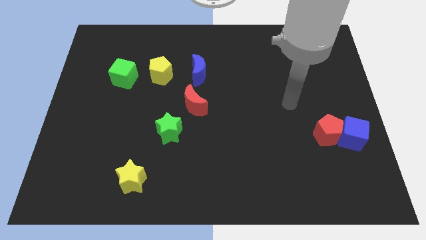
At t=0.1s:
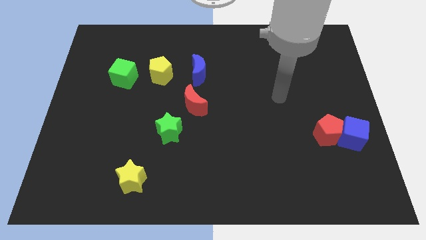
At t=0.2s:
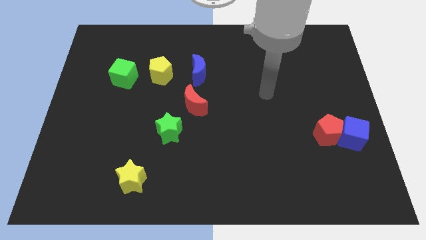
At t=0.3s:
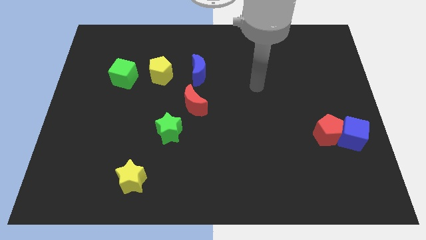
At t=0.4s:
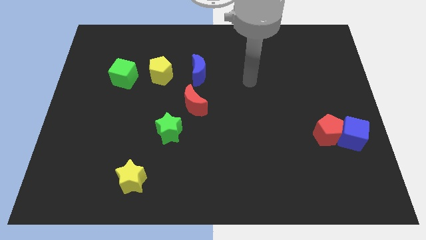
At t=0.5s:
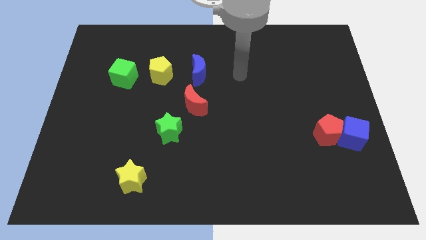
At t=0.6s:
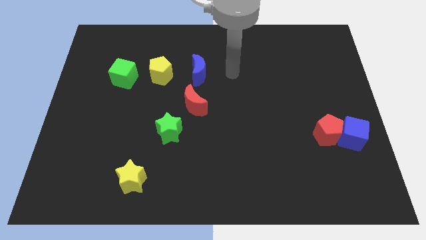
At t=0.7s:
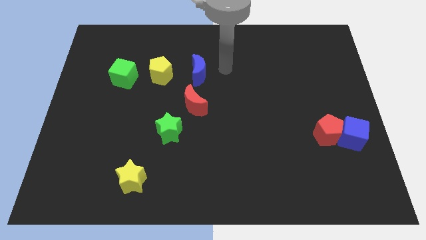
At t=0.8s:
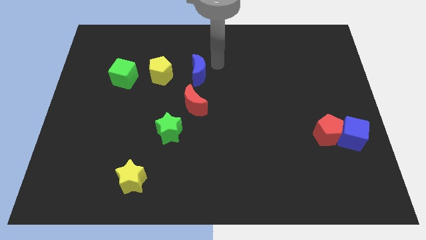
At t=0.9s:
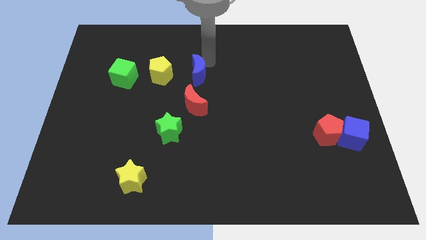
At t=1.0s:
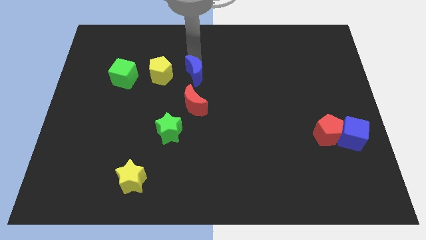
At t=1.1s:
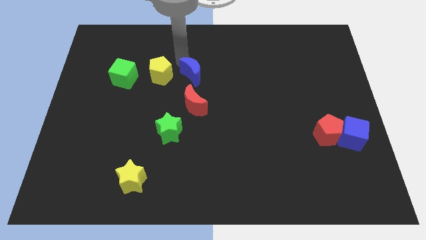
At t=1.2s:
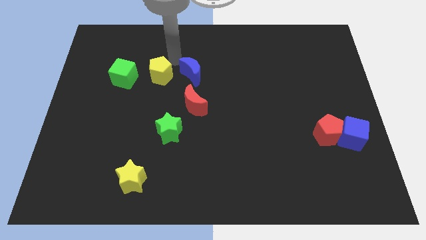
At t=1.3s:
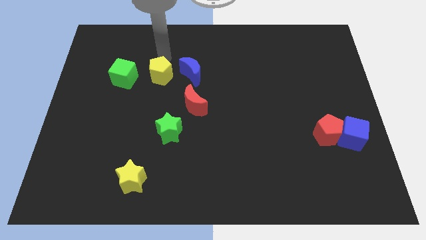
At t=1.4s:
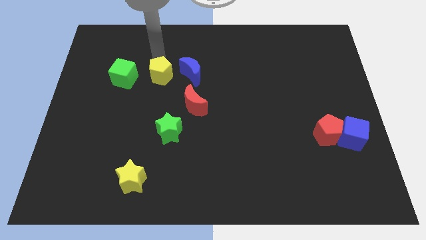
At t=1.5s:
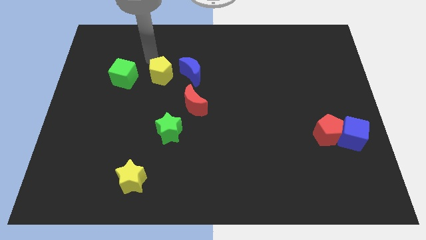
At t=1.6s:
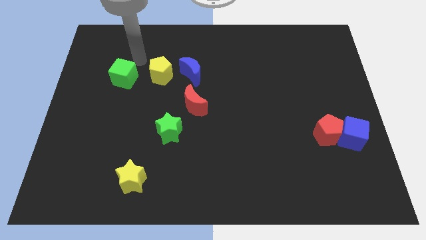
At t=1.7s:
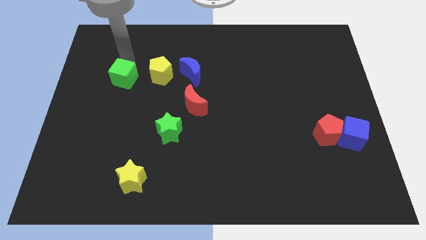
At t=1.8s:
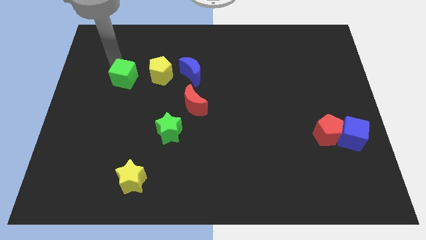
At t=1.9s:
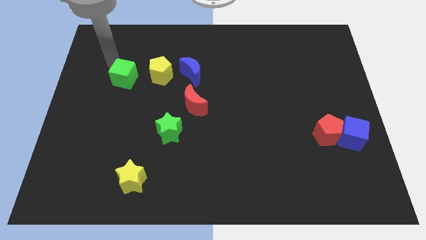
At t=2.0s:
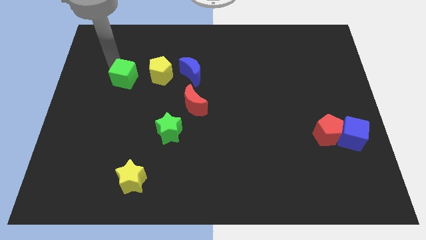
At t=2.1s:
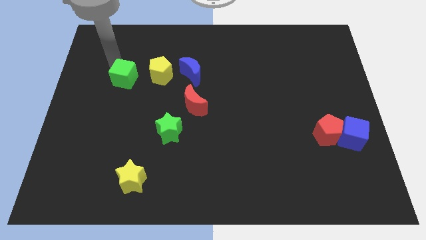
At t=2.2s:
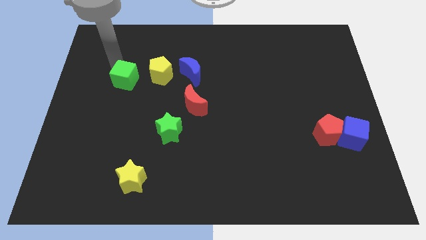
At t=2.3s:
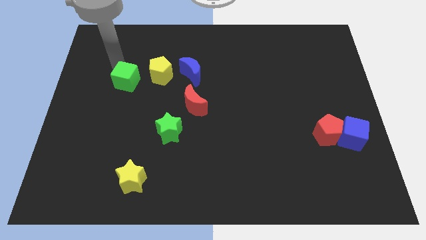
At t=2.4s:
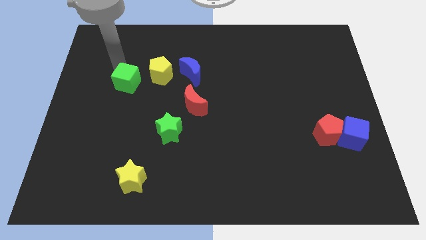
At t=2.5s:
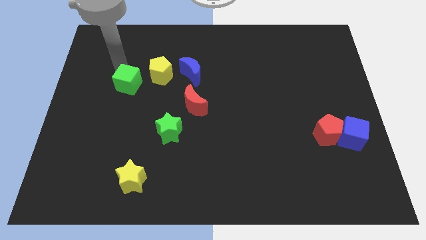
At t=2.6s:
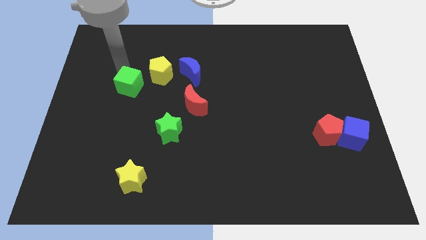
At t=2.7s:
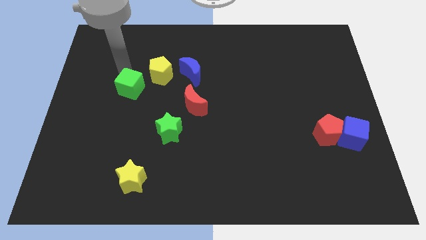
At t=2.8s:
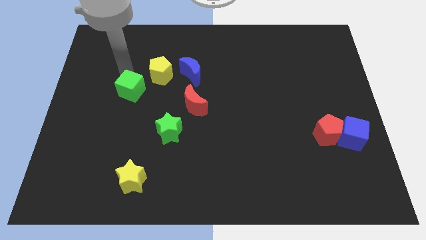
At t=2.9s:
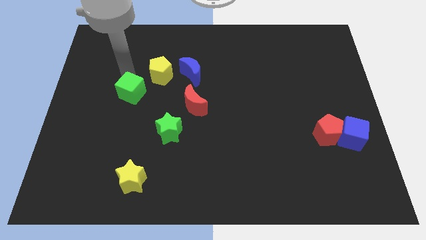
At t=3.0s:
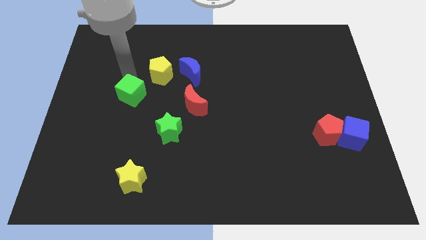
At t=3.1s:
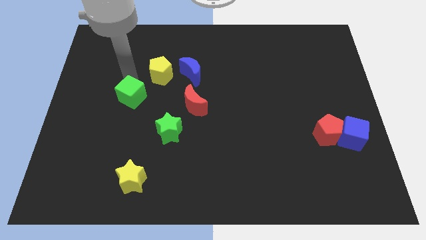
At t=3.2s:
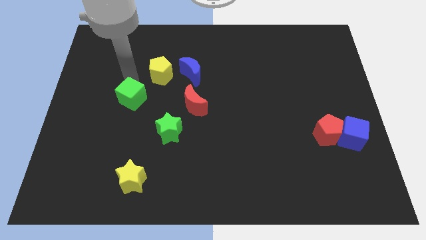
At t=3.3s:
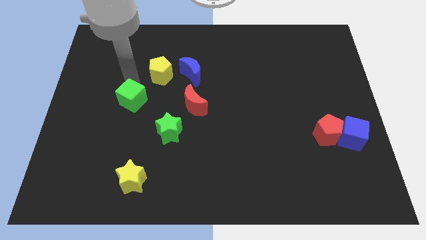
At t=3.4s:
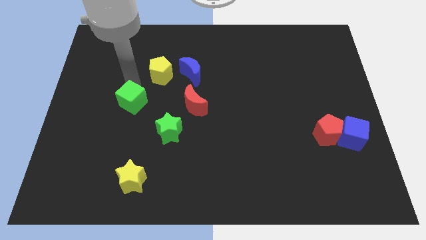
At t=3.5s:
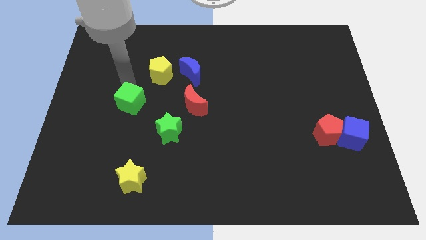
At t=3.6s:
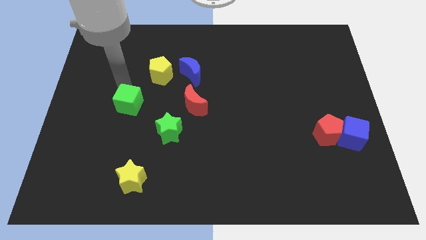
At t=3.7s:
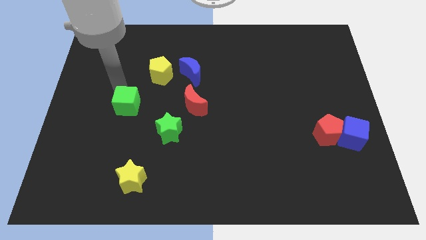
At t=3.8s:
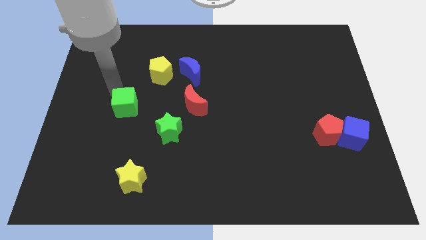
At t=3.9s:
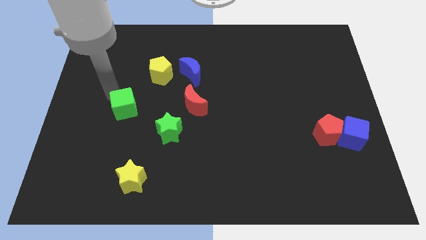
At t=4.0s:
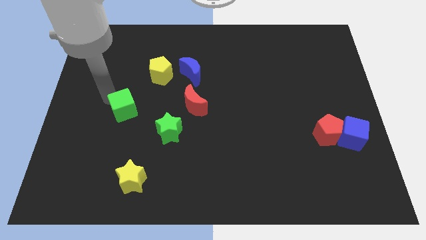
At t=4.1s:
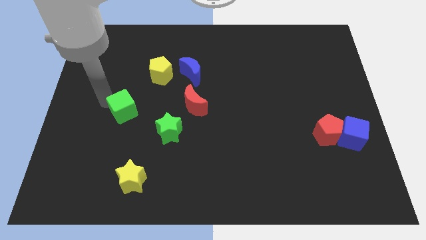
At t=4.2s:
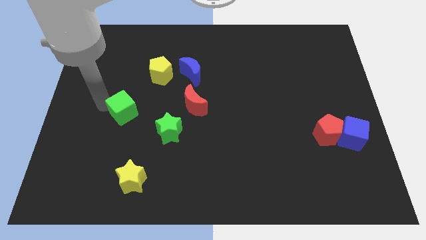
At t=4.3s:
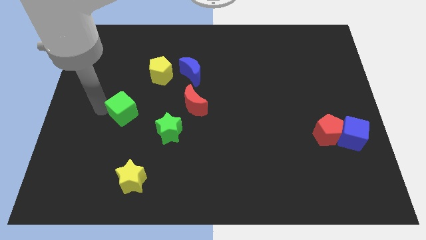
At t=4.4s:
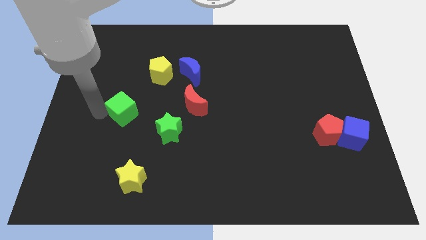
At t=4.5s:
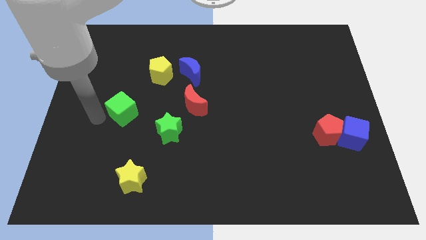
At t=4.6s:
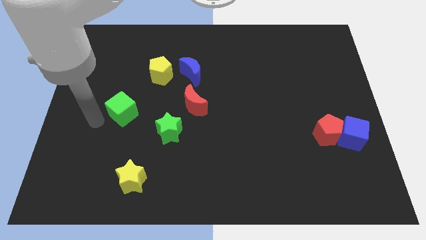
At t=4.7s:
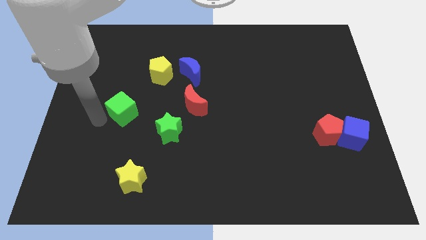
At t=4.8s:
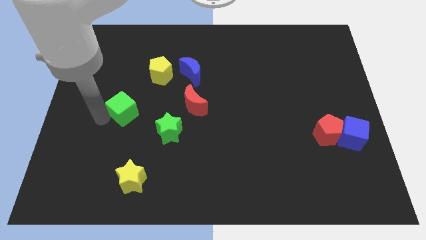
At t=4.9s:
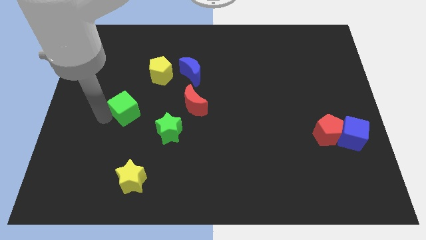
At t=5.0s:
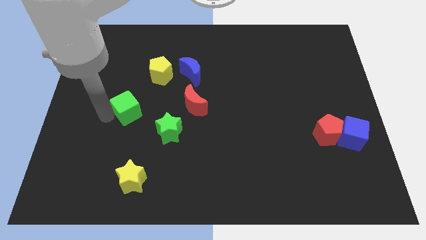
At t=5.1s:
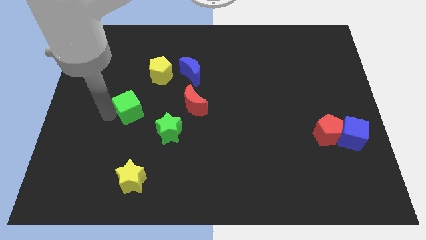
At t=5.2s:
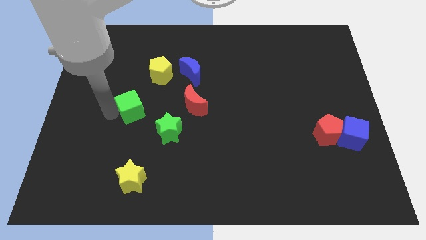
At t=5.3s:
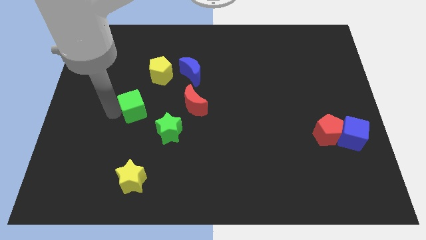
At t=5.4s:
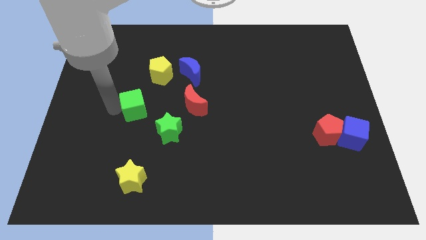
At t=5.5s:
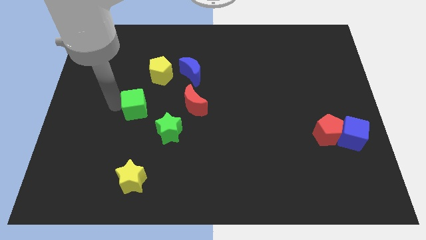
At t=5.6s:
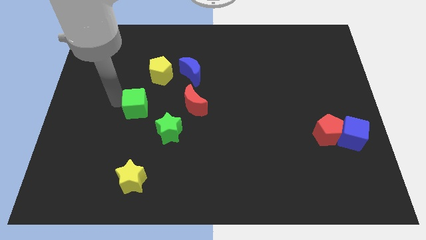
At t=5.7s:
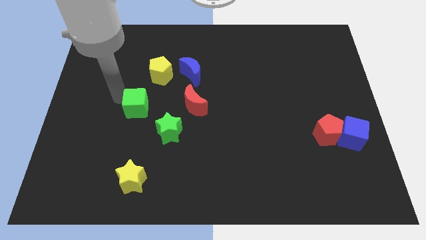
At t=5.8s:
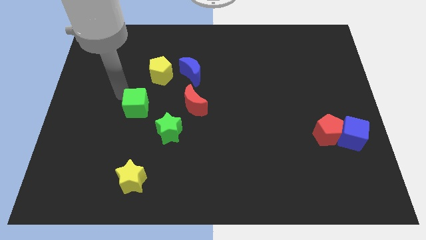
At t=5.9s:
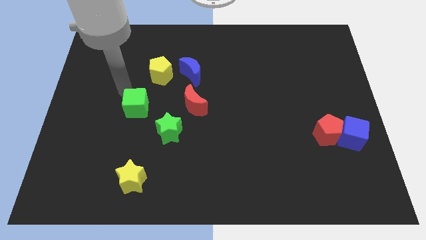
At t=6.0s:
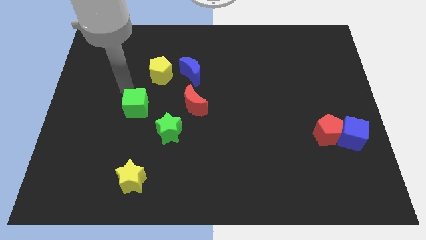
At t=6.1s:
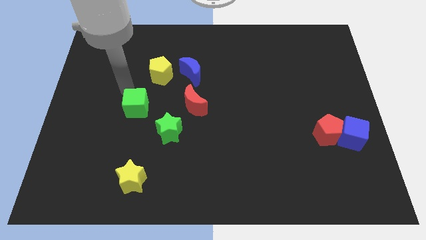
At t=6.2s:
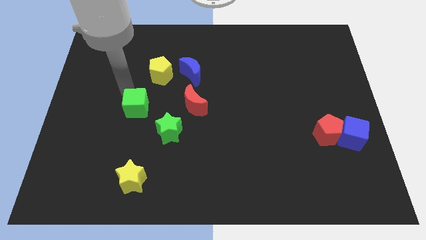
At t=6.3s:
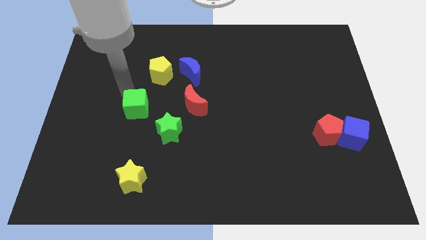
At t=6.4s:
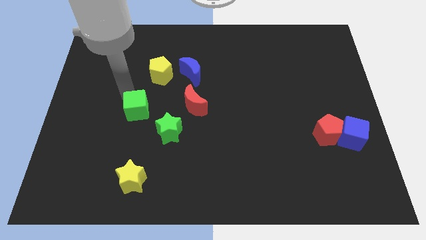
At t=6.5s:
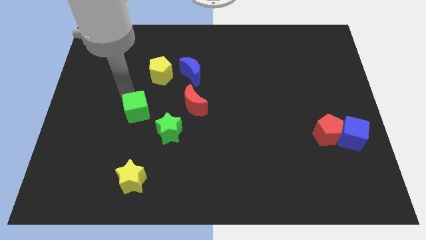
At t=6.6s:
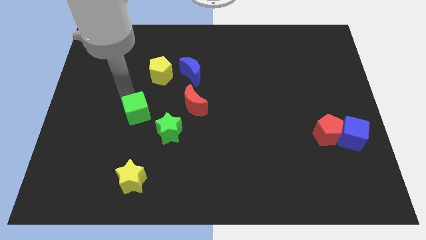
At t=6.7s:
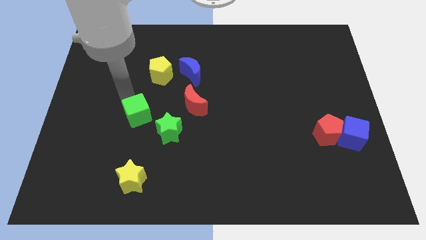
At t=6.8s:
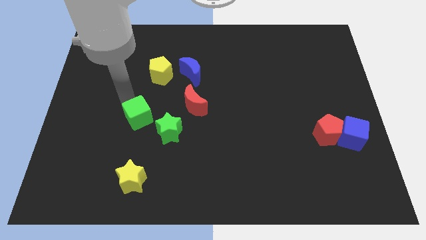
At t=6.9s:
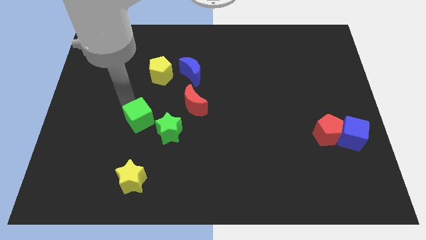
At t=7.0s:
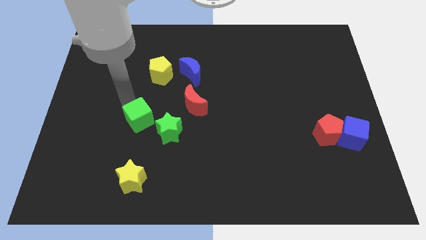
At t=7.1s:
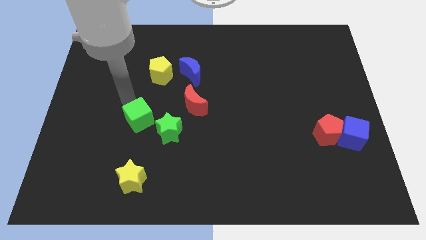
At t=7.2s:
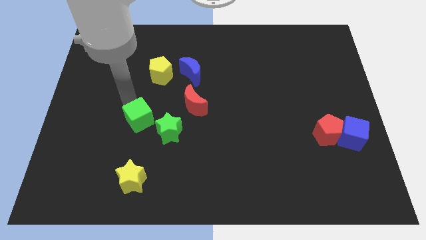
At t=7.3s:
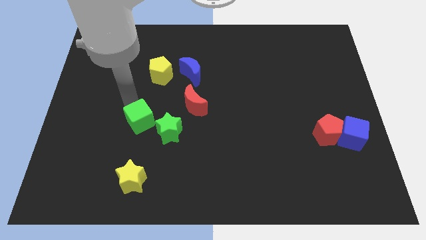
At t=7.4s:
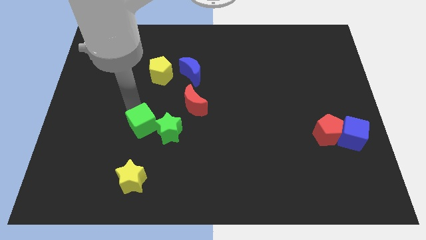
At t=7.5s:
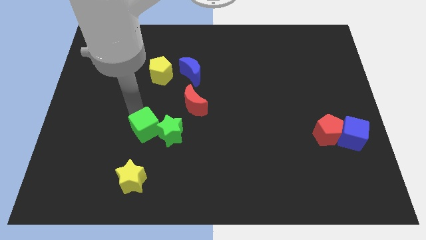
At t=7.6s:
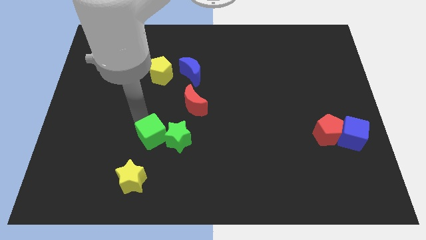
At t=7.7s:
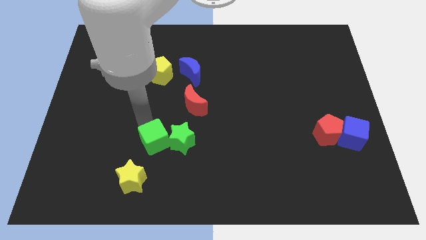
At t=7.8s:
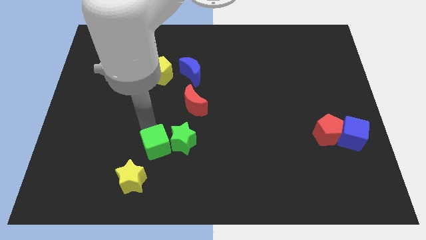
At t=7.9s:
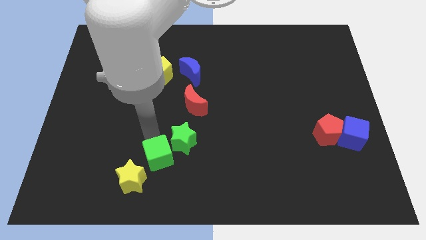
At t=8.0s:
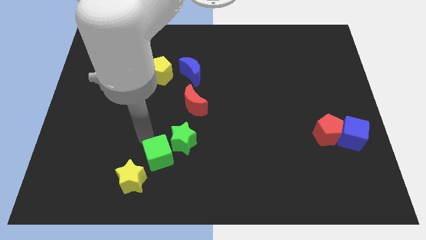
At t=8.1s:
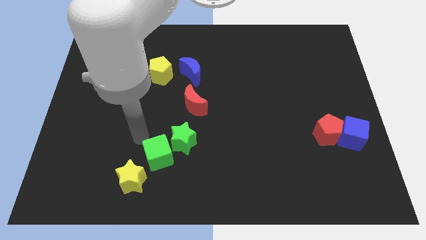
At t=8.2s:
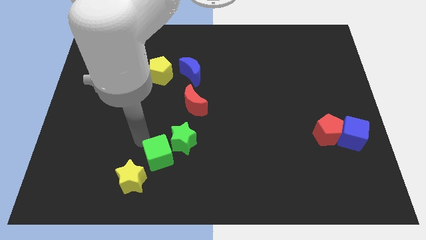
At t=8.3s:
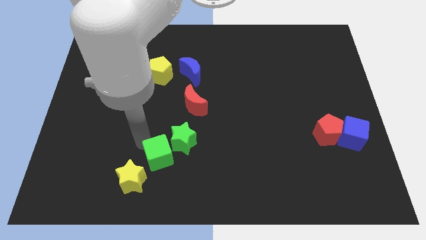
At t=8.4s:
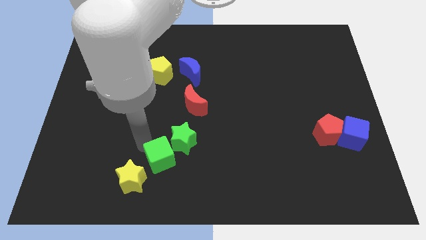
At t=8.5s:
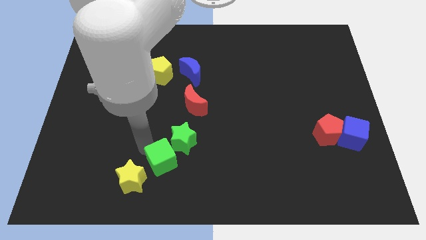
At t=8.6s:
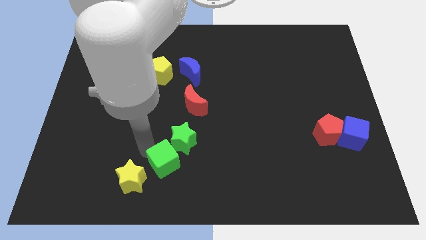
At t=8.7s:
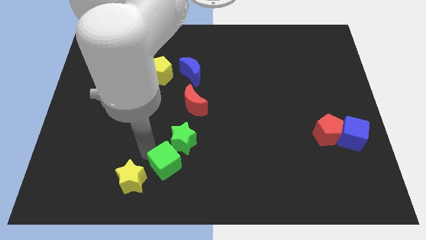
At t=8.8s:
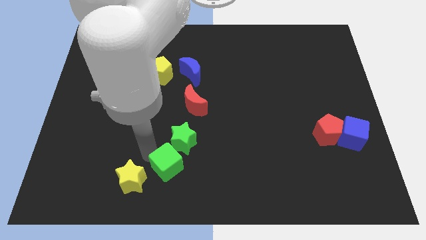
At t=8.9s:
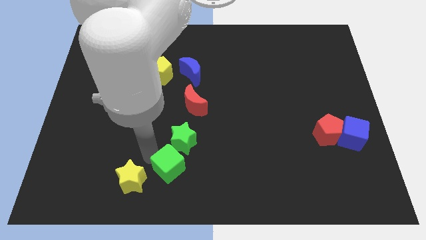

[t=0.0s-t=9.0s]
put the green cube to the bottom side
